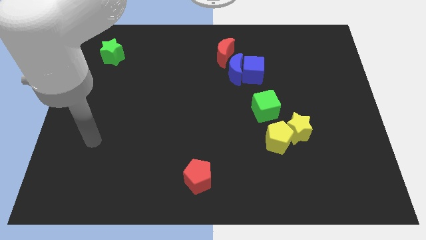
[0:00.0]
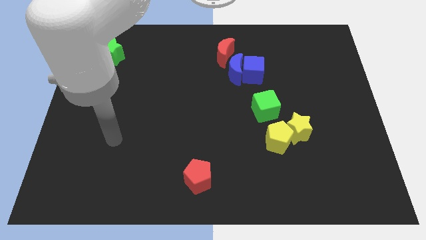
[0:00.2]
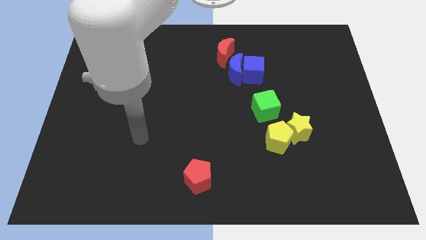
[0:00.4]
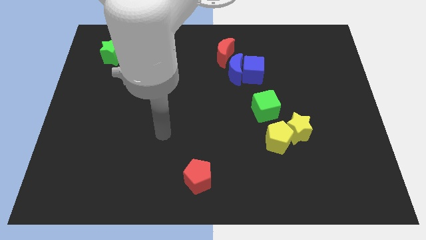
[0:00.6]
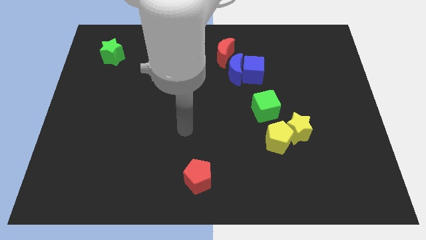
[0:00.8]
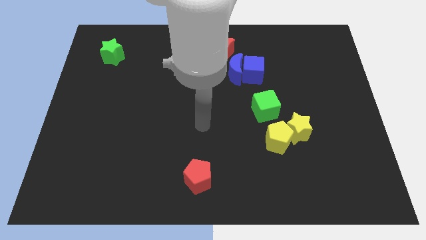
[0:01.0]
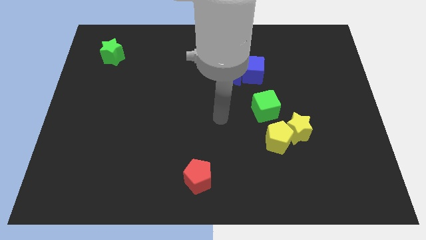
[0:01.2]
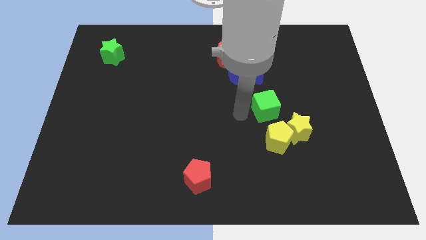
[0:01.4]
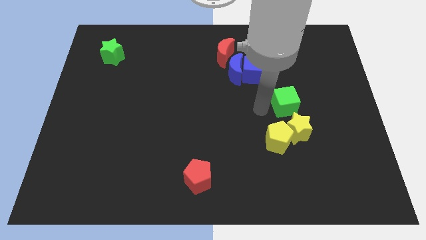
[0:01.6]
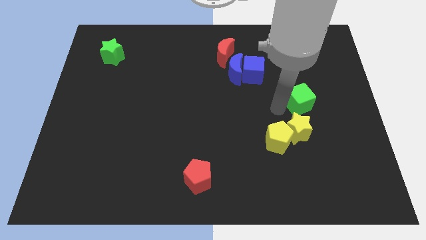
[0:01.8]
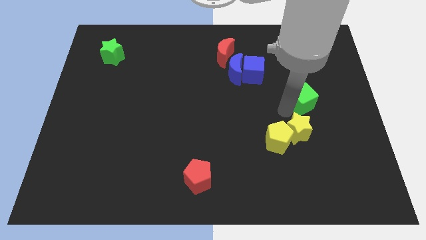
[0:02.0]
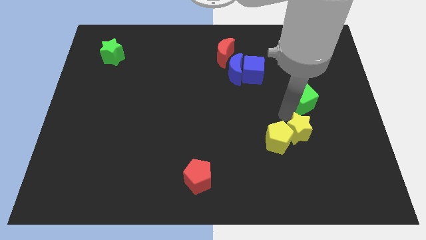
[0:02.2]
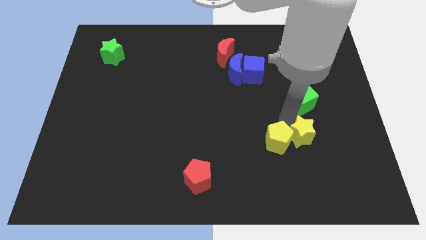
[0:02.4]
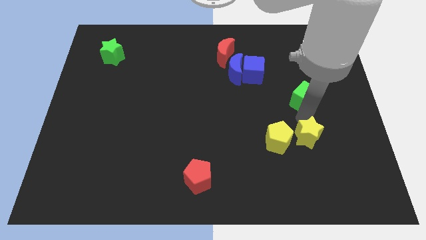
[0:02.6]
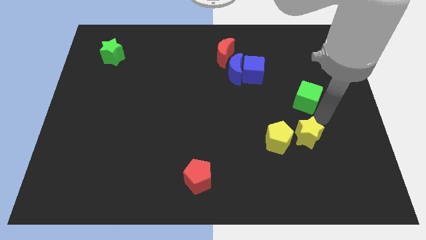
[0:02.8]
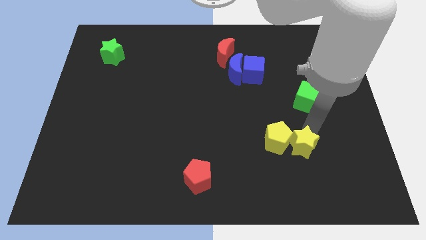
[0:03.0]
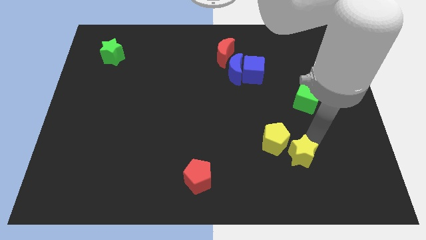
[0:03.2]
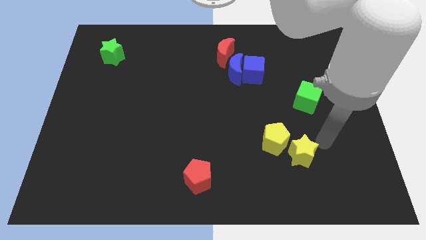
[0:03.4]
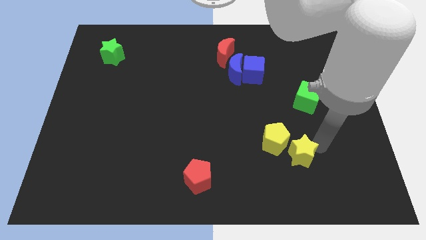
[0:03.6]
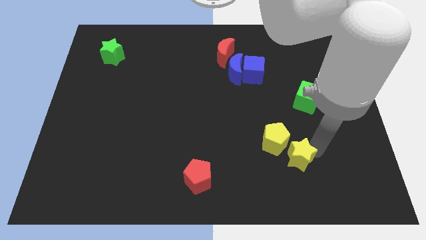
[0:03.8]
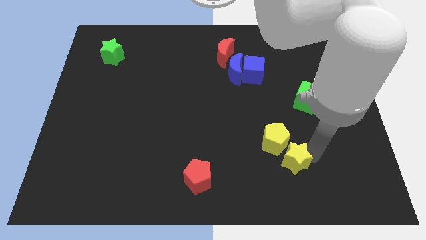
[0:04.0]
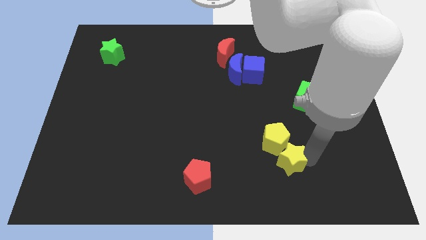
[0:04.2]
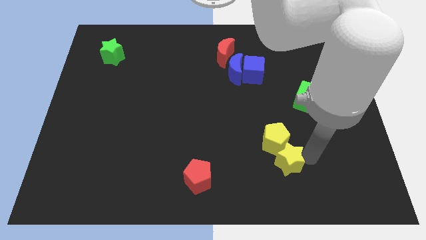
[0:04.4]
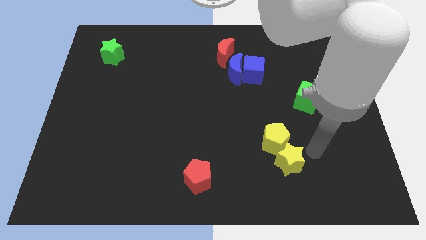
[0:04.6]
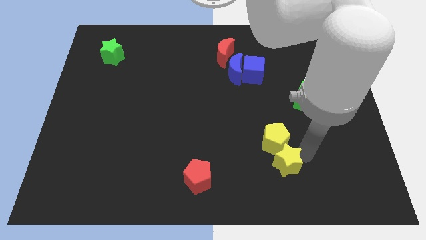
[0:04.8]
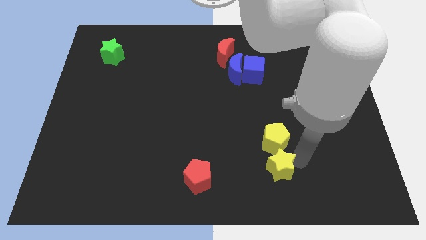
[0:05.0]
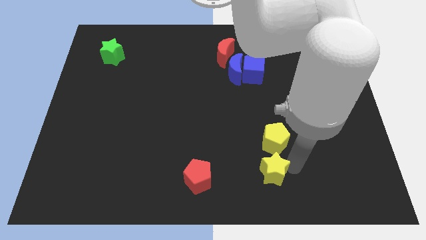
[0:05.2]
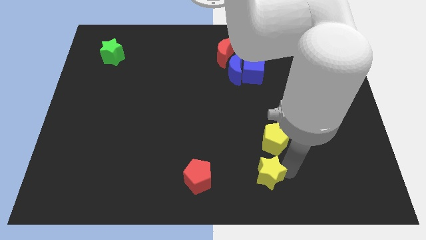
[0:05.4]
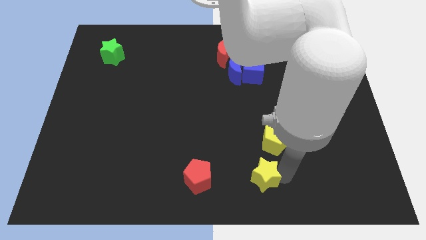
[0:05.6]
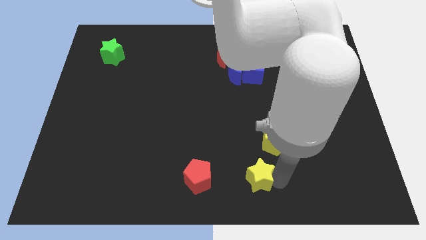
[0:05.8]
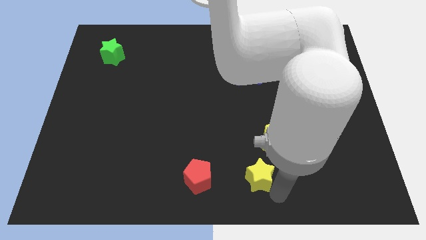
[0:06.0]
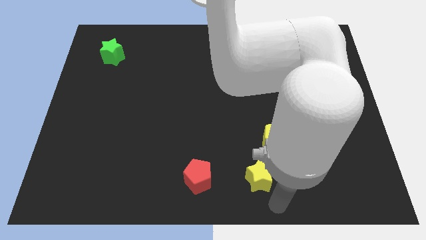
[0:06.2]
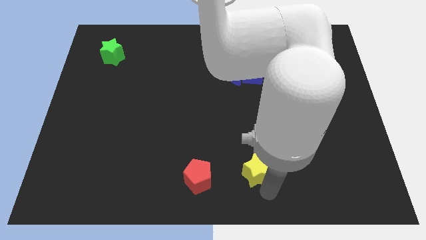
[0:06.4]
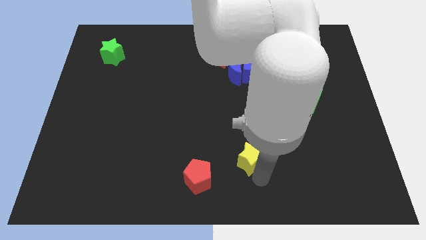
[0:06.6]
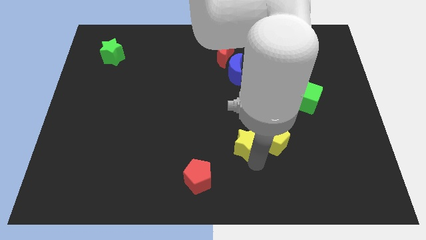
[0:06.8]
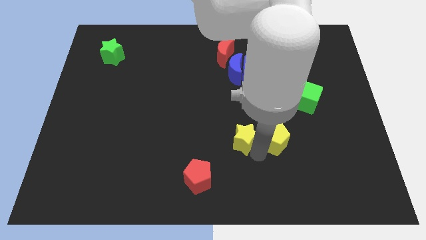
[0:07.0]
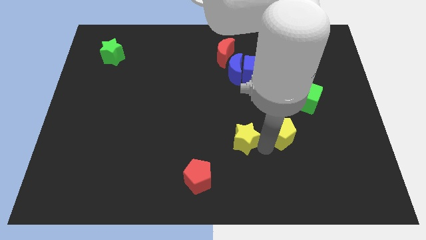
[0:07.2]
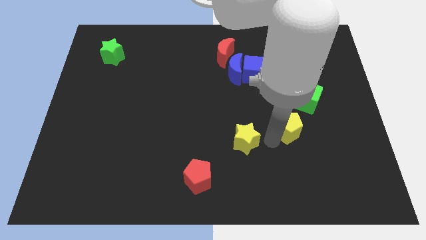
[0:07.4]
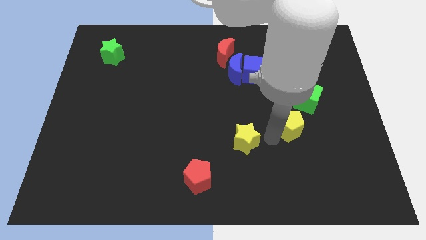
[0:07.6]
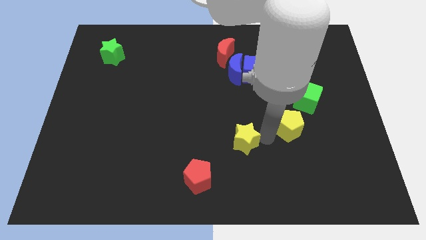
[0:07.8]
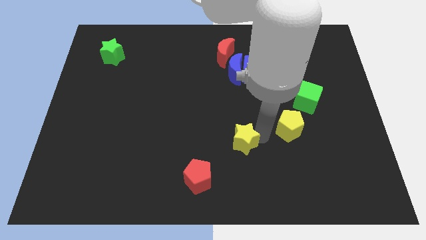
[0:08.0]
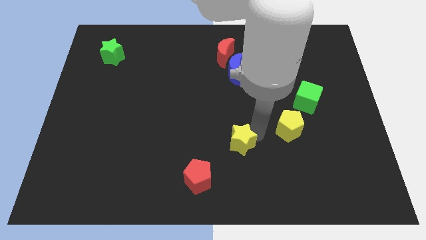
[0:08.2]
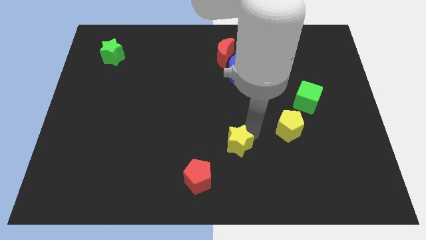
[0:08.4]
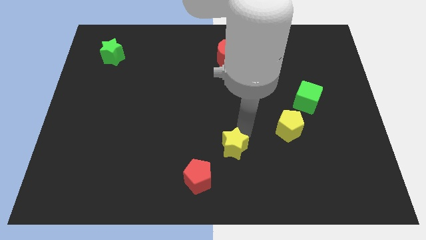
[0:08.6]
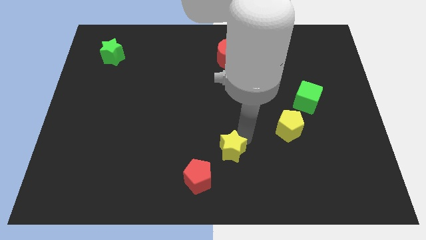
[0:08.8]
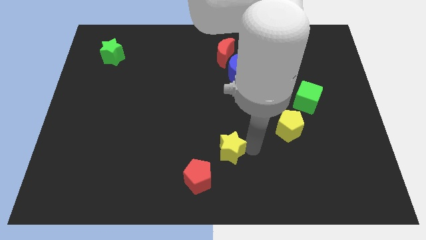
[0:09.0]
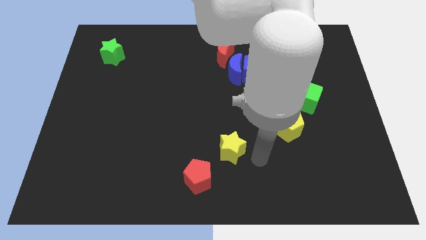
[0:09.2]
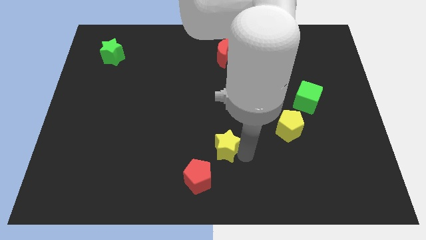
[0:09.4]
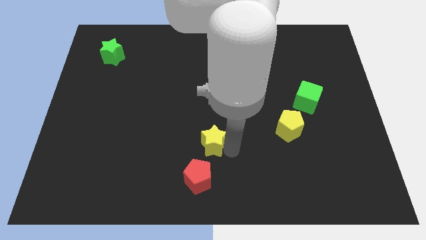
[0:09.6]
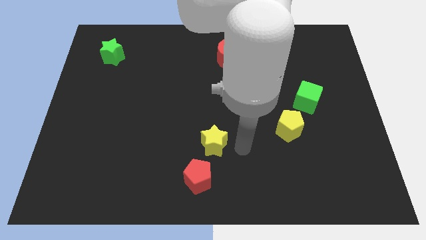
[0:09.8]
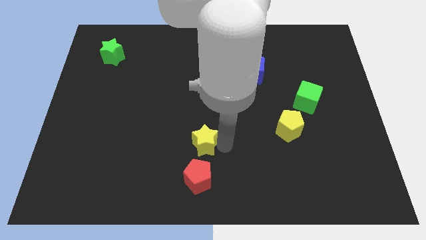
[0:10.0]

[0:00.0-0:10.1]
push the yellow star to the left

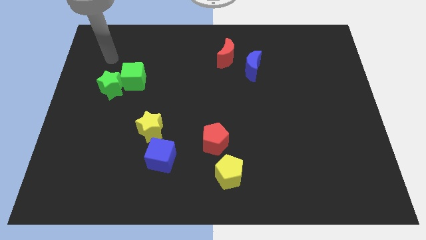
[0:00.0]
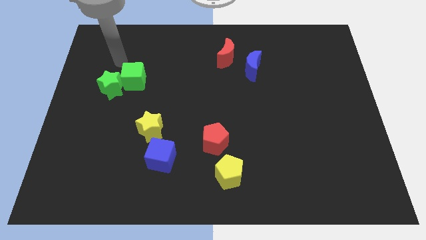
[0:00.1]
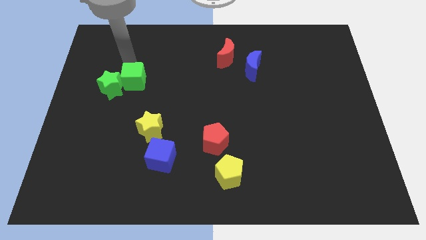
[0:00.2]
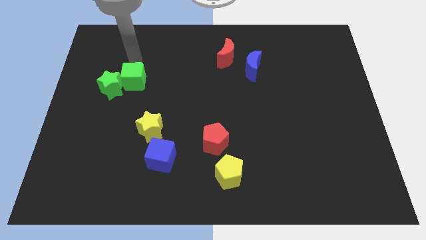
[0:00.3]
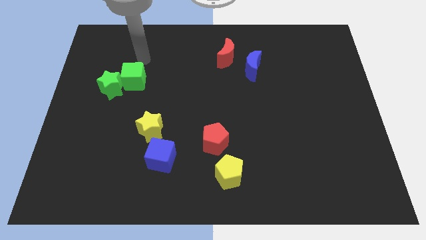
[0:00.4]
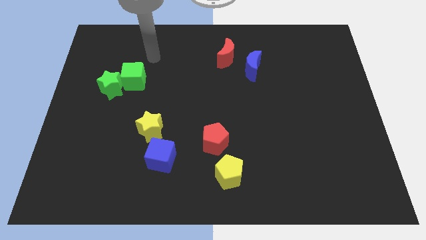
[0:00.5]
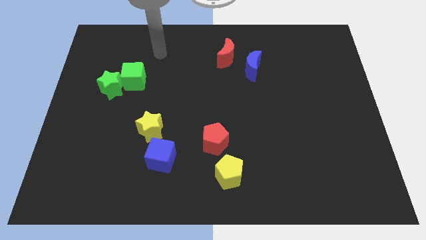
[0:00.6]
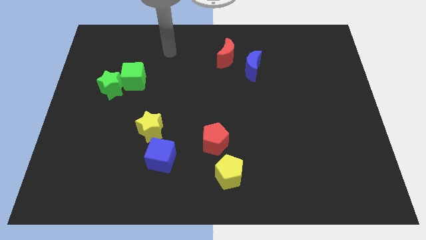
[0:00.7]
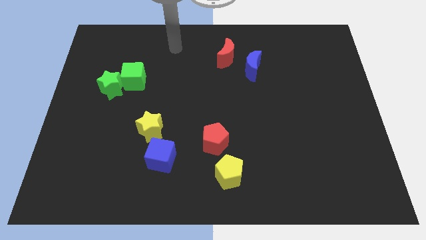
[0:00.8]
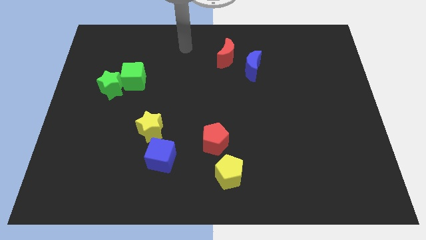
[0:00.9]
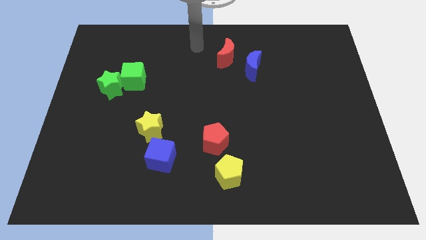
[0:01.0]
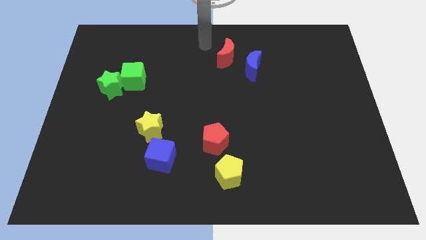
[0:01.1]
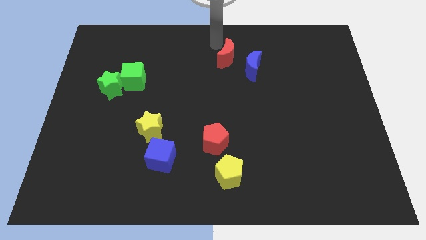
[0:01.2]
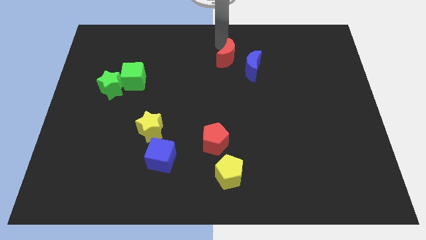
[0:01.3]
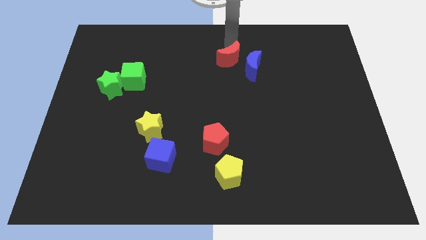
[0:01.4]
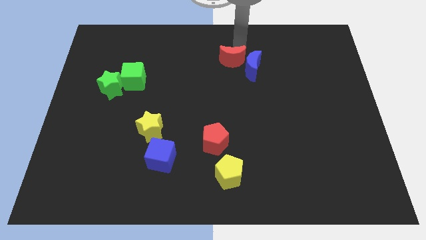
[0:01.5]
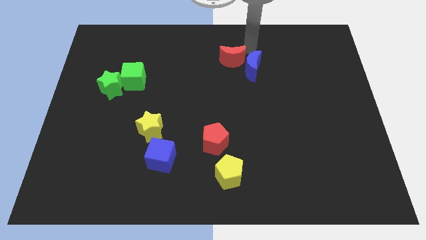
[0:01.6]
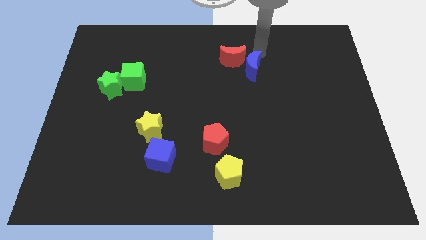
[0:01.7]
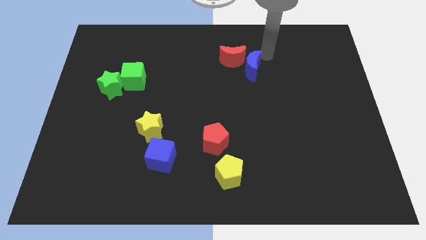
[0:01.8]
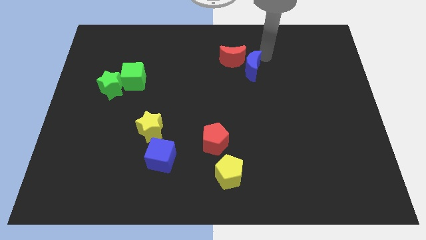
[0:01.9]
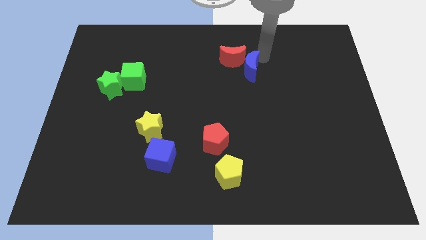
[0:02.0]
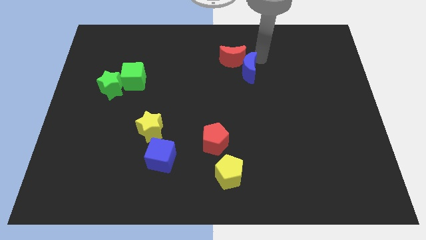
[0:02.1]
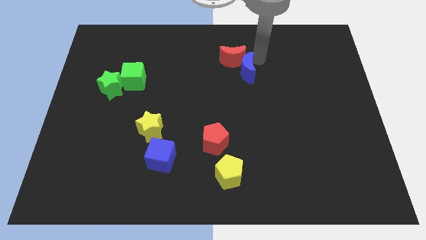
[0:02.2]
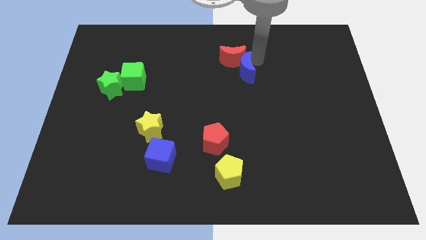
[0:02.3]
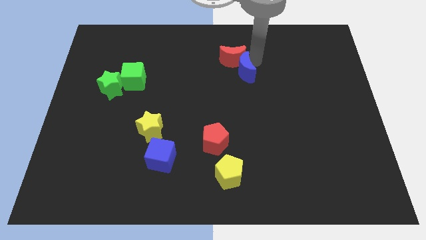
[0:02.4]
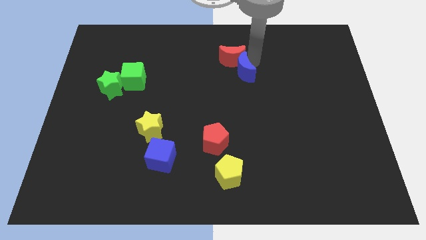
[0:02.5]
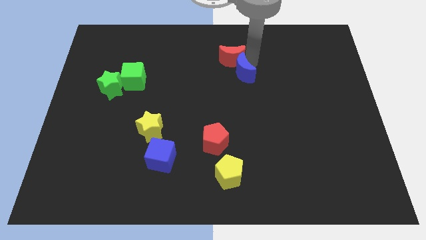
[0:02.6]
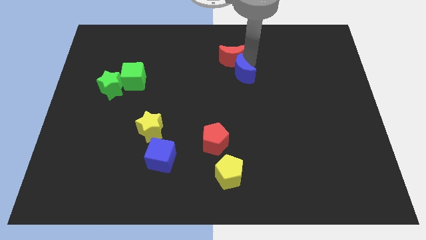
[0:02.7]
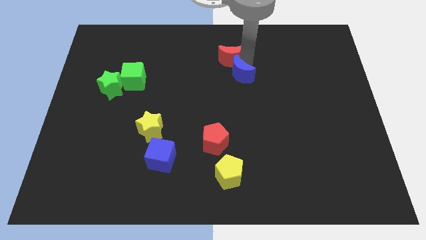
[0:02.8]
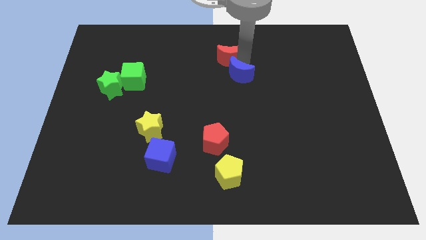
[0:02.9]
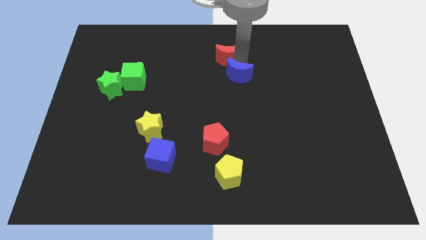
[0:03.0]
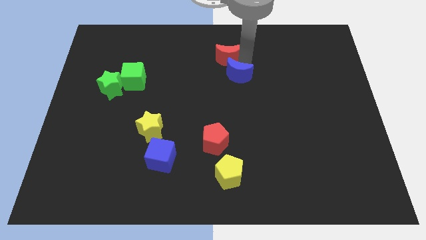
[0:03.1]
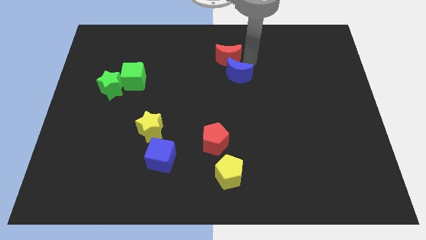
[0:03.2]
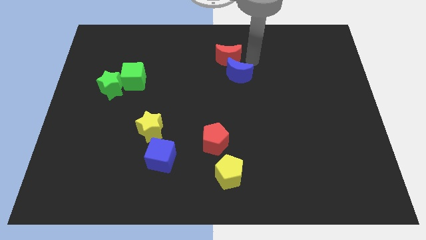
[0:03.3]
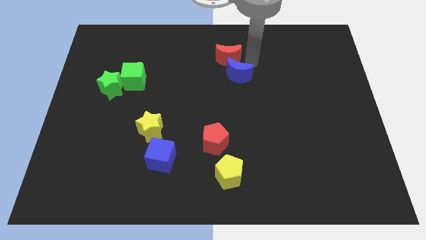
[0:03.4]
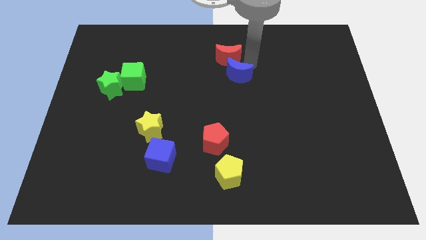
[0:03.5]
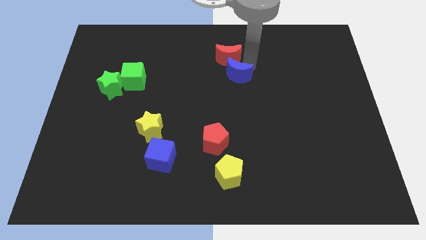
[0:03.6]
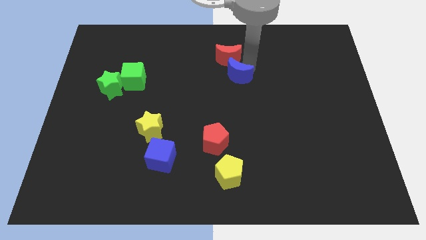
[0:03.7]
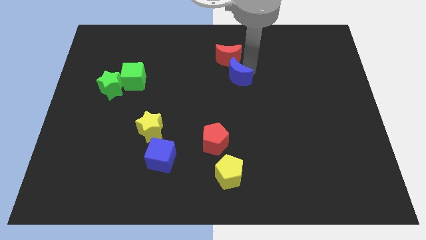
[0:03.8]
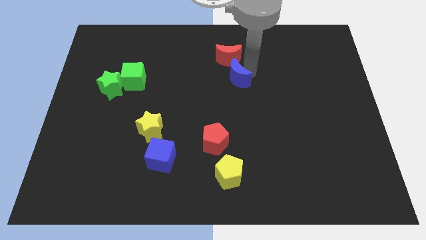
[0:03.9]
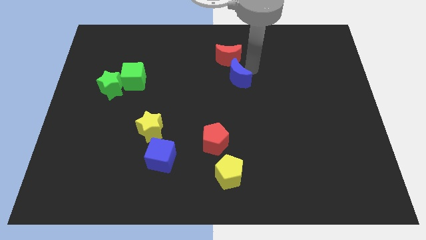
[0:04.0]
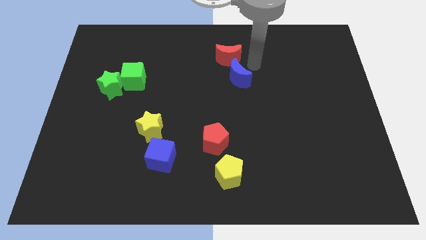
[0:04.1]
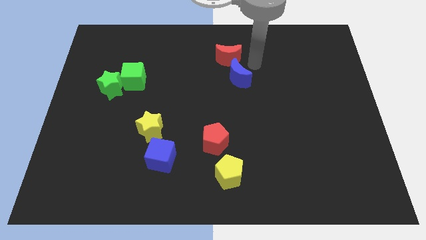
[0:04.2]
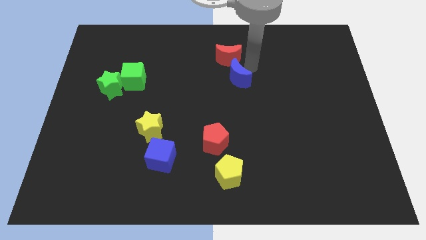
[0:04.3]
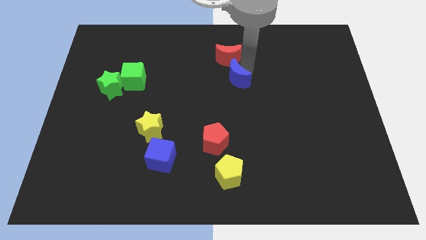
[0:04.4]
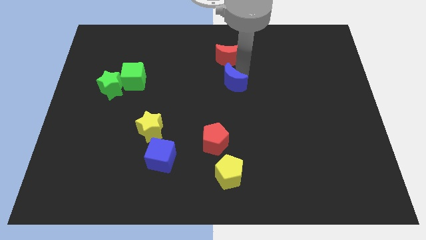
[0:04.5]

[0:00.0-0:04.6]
push the blue moon somewhat down and left diagonally
